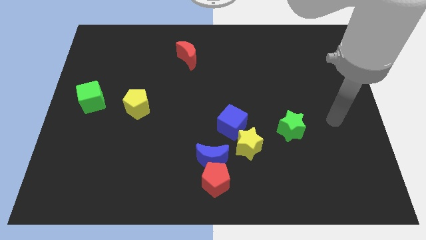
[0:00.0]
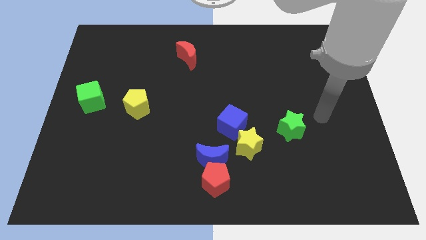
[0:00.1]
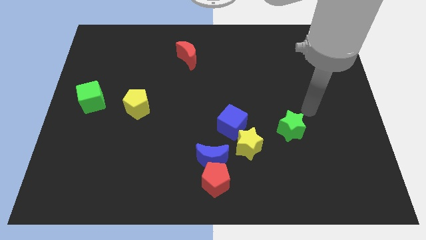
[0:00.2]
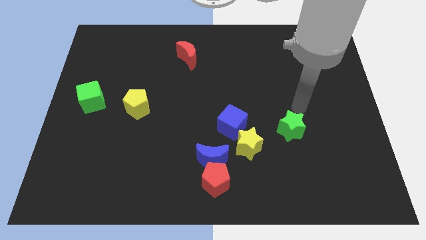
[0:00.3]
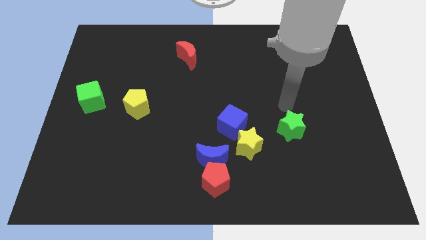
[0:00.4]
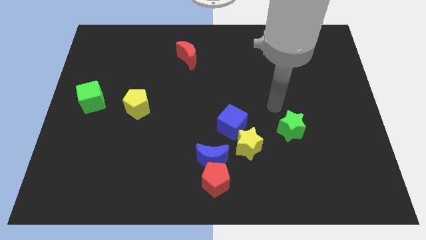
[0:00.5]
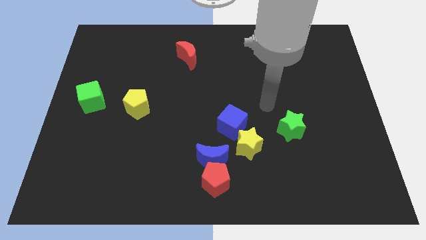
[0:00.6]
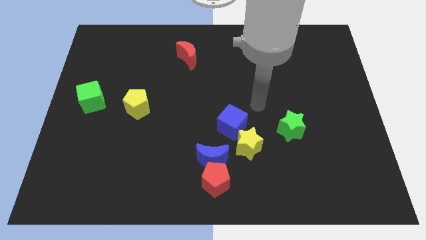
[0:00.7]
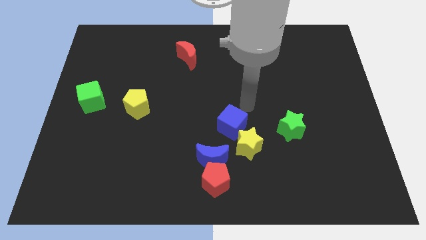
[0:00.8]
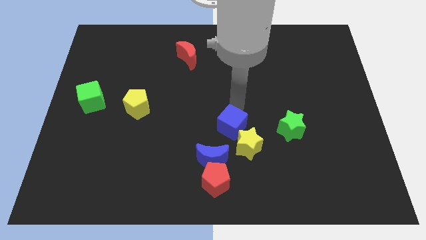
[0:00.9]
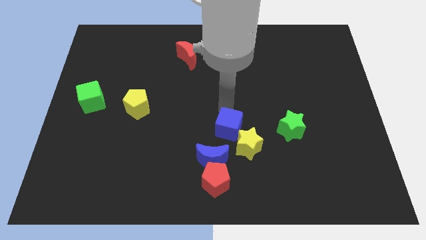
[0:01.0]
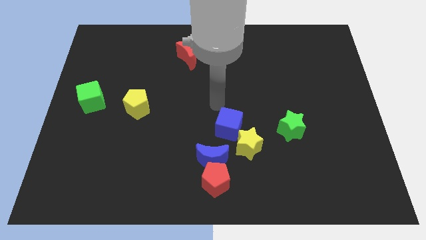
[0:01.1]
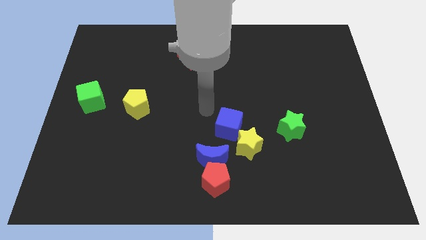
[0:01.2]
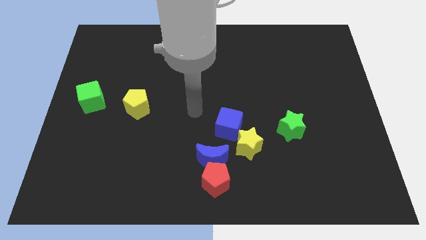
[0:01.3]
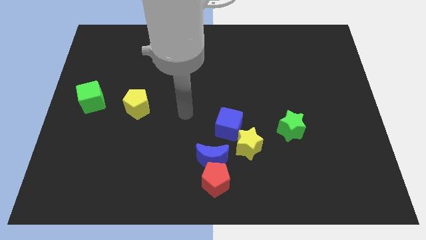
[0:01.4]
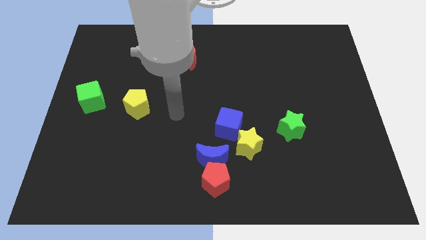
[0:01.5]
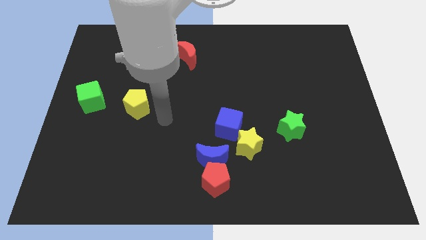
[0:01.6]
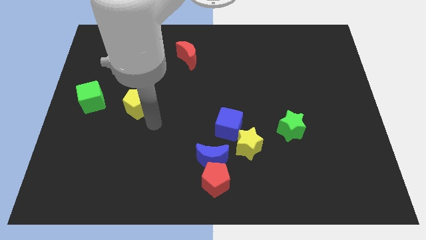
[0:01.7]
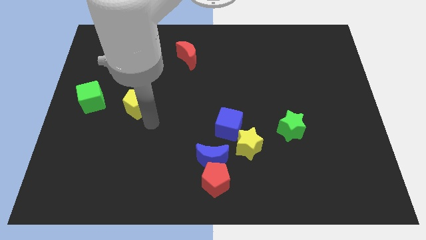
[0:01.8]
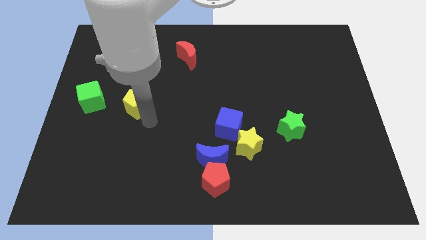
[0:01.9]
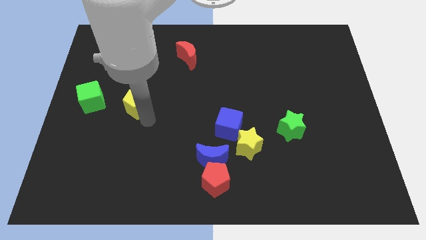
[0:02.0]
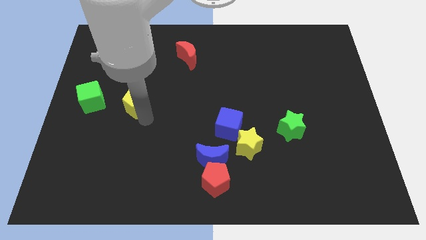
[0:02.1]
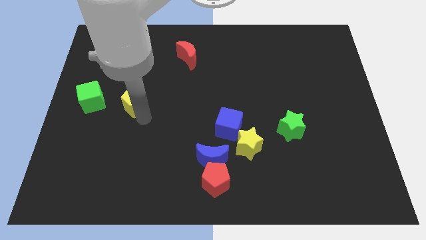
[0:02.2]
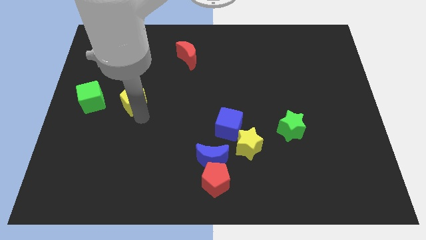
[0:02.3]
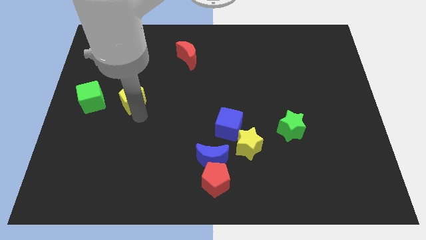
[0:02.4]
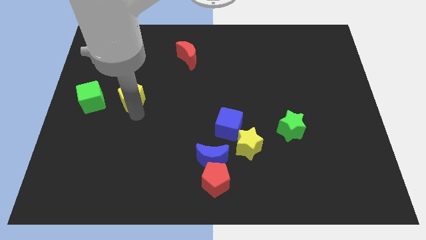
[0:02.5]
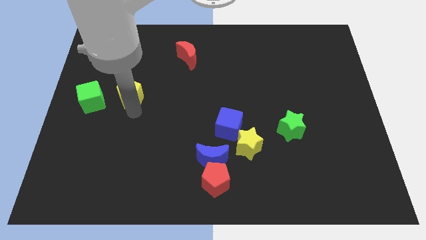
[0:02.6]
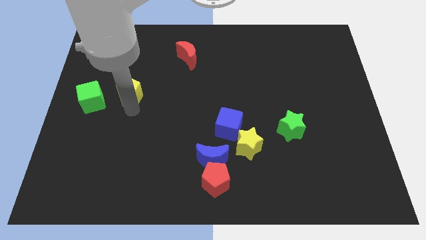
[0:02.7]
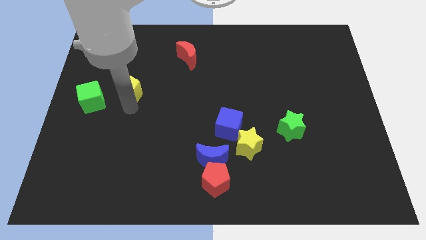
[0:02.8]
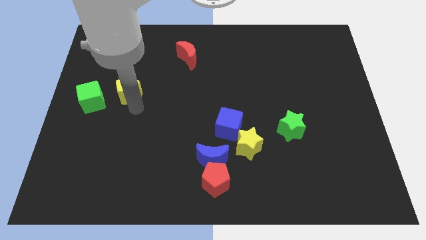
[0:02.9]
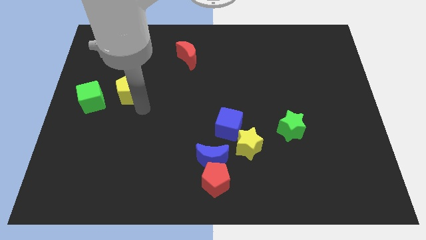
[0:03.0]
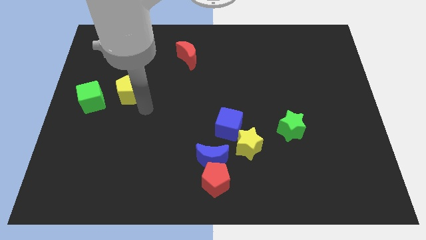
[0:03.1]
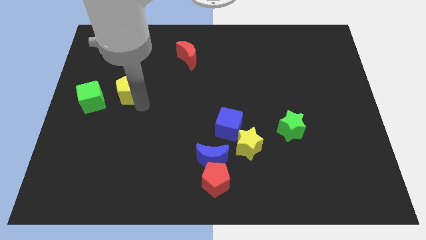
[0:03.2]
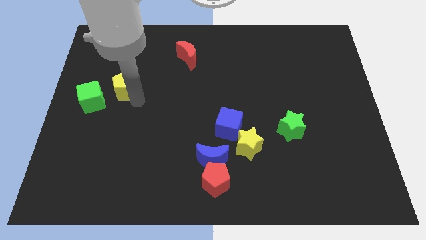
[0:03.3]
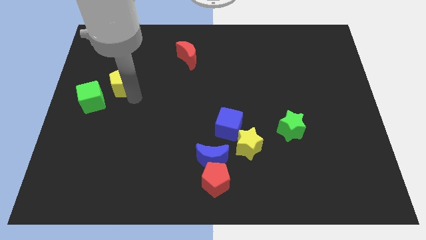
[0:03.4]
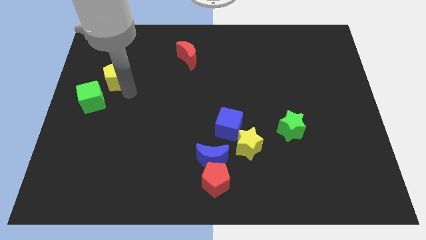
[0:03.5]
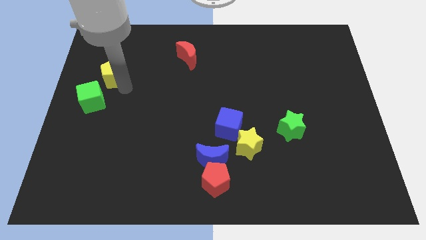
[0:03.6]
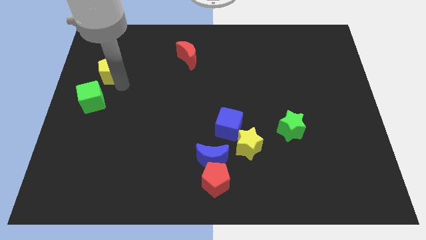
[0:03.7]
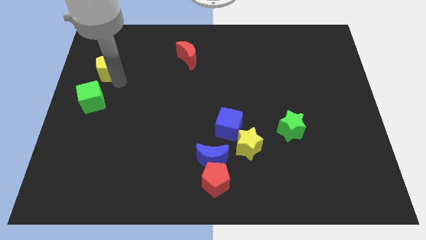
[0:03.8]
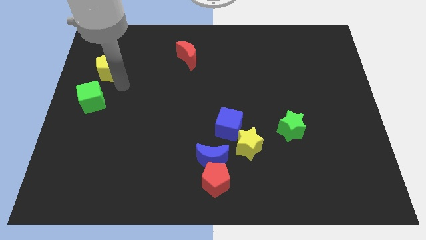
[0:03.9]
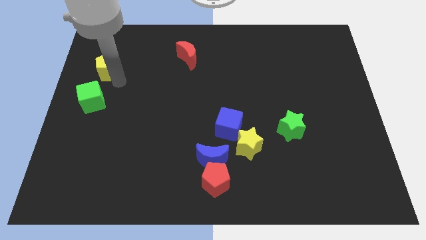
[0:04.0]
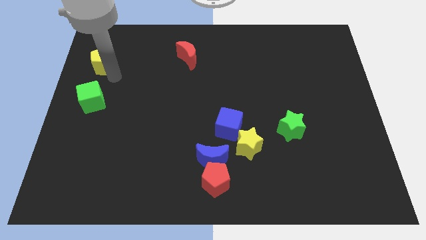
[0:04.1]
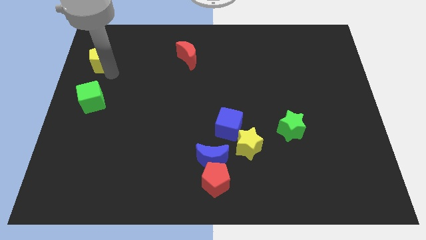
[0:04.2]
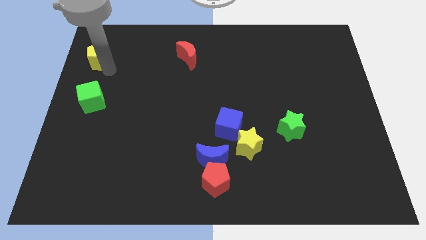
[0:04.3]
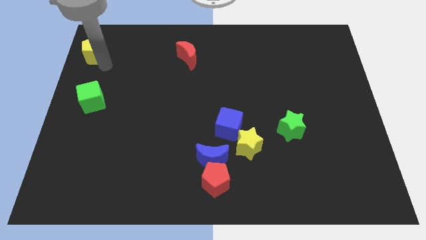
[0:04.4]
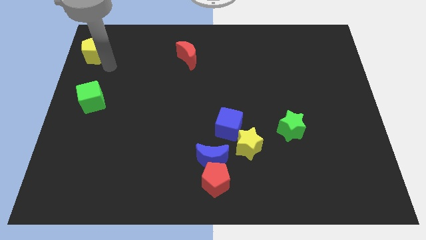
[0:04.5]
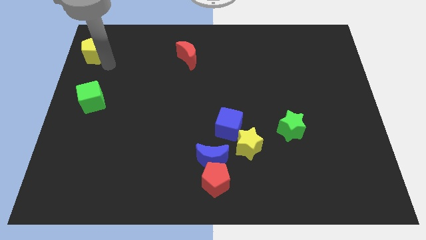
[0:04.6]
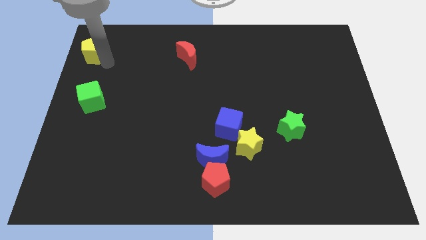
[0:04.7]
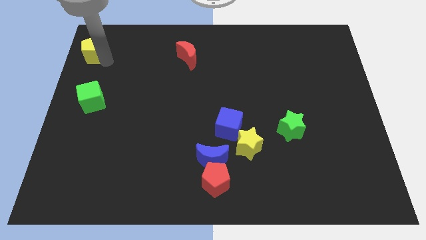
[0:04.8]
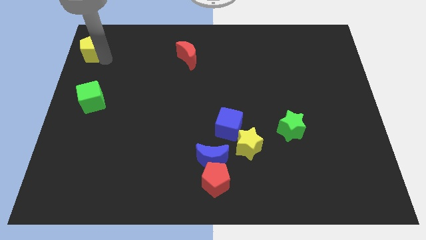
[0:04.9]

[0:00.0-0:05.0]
slide the yellow pentagon to the top left

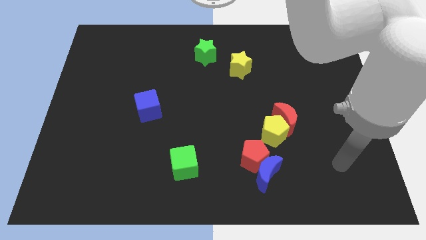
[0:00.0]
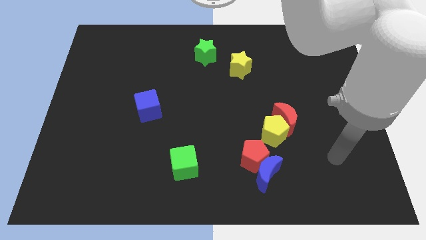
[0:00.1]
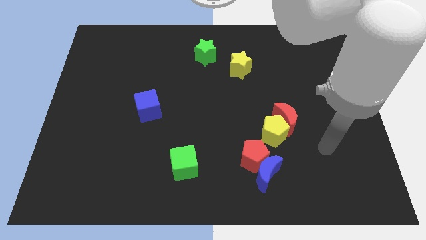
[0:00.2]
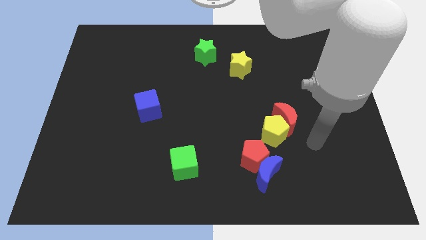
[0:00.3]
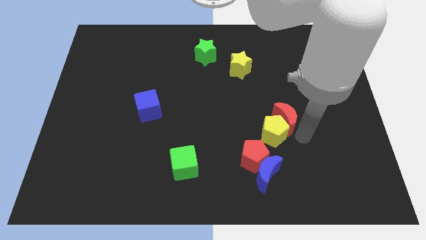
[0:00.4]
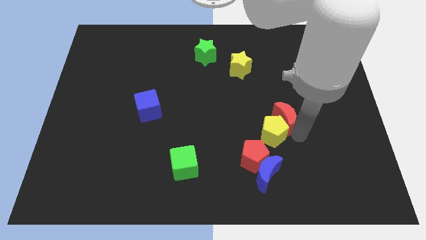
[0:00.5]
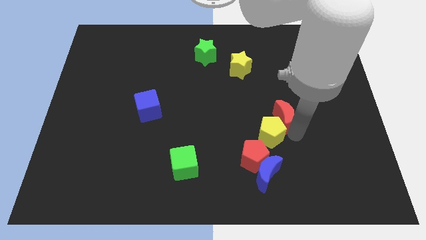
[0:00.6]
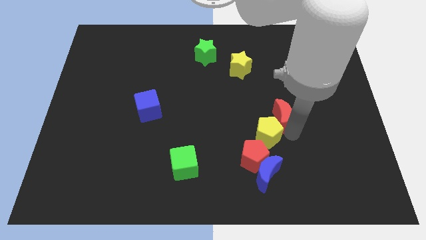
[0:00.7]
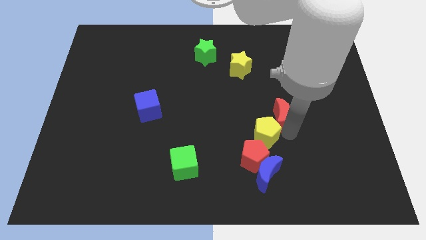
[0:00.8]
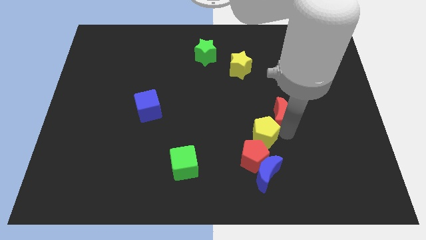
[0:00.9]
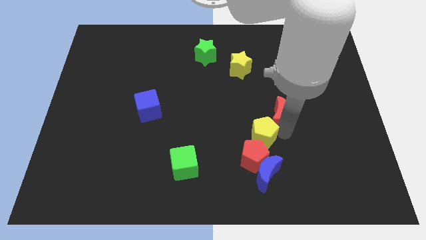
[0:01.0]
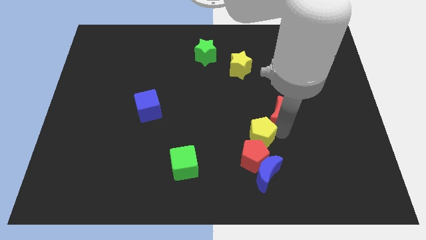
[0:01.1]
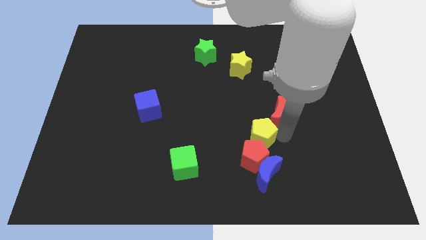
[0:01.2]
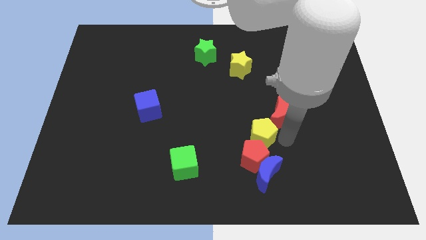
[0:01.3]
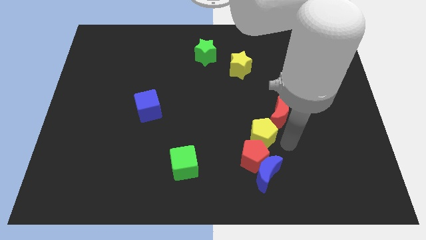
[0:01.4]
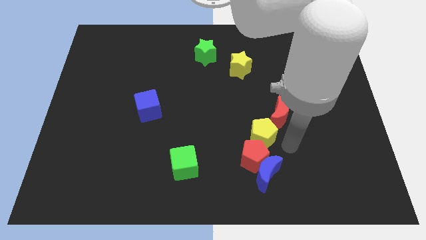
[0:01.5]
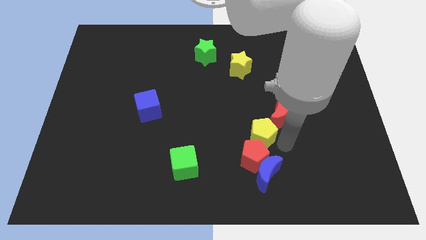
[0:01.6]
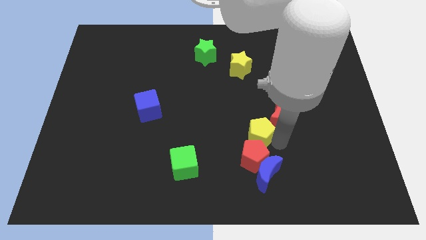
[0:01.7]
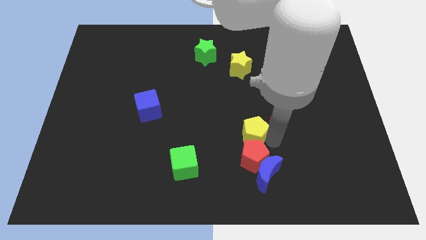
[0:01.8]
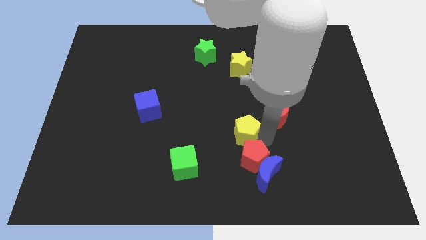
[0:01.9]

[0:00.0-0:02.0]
put the yellow pentagon to the center of the board

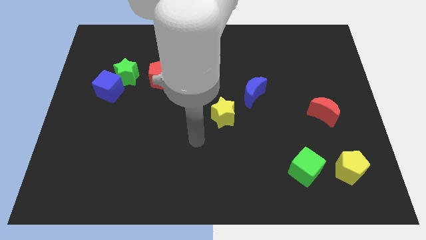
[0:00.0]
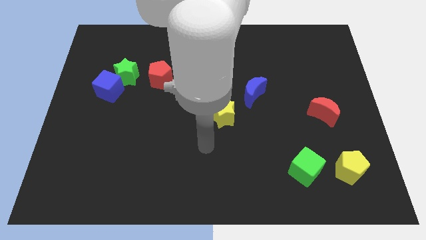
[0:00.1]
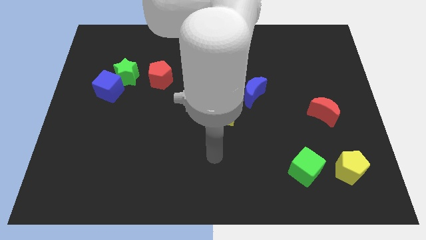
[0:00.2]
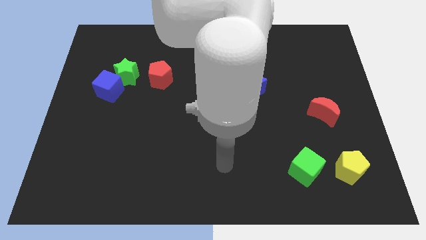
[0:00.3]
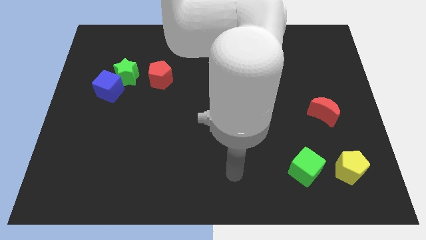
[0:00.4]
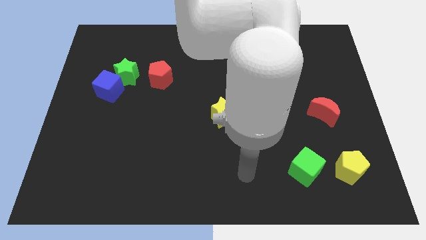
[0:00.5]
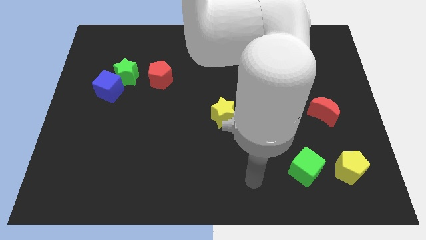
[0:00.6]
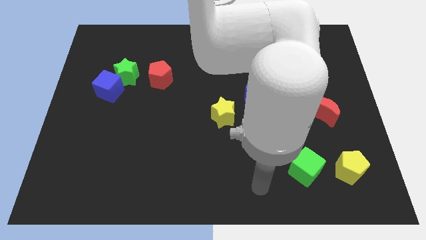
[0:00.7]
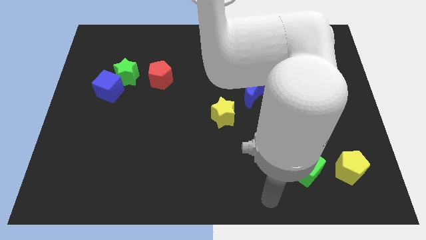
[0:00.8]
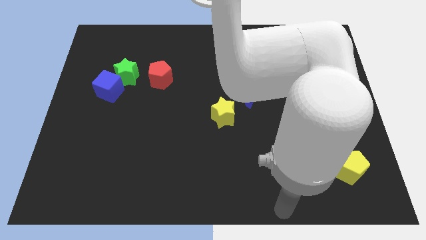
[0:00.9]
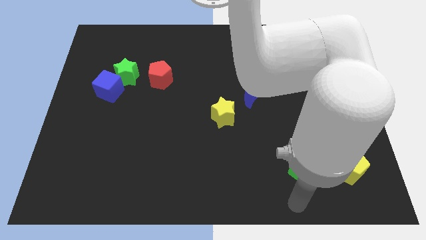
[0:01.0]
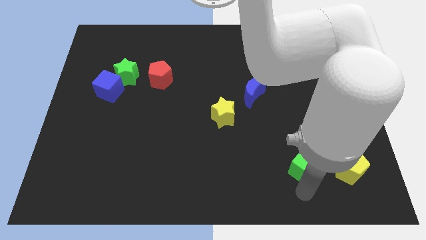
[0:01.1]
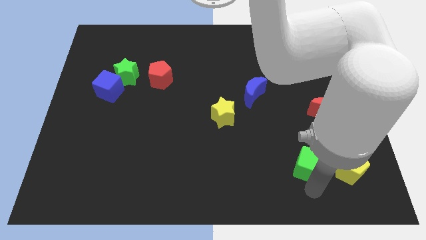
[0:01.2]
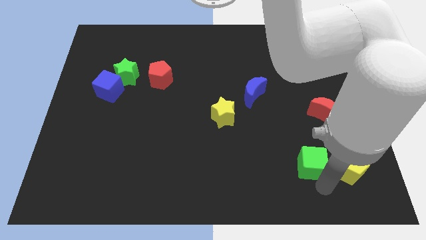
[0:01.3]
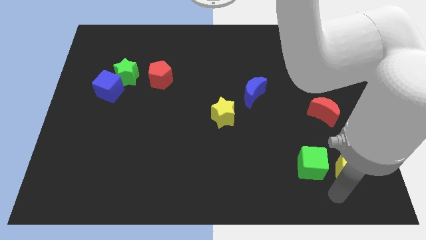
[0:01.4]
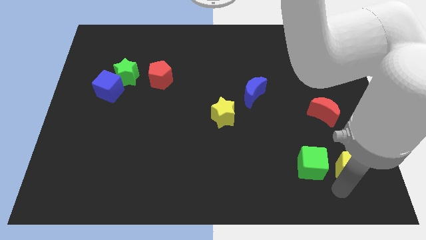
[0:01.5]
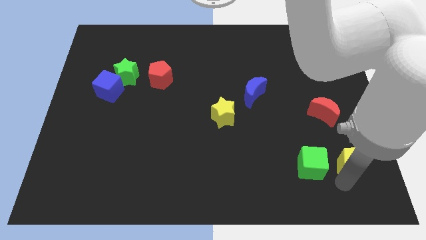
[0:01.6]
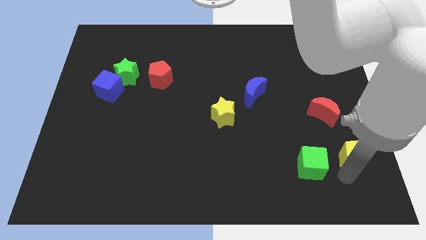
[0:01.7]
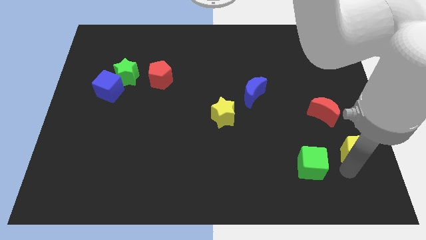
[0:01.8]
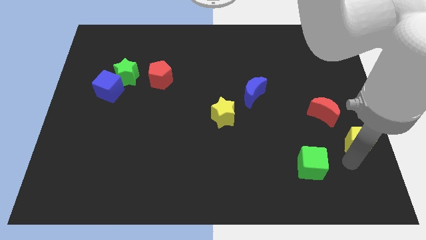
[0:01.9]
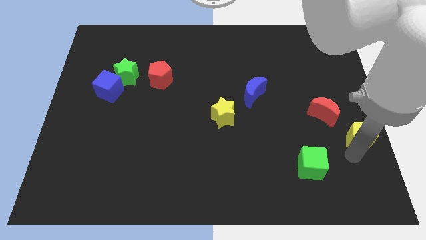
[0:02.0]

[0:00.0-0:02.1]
put the yellow pentagon to the center right
